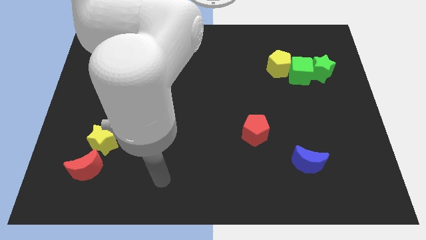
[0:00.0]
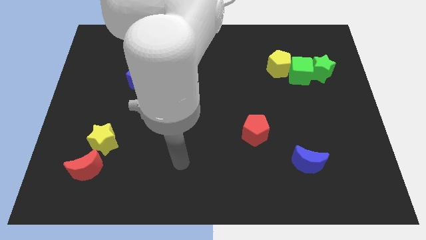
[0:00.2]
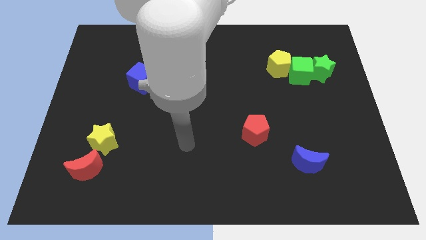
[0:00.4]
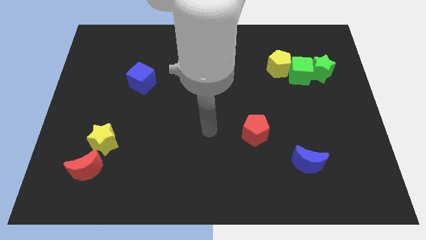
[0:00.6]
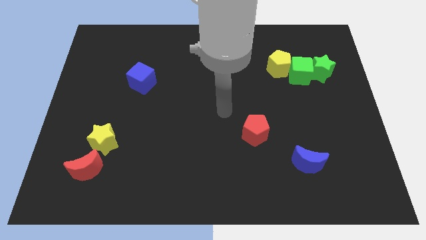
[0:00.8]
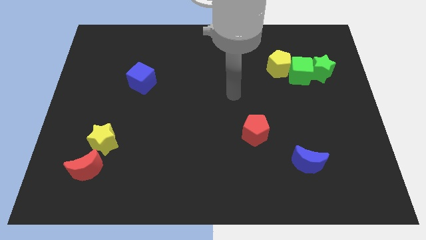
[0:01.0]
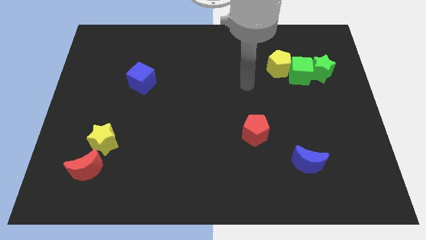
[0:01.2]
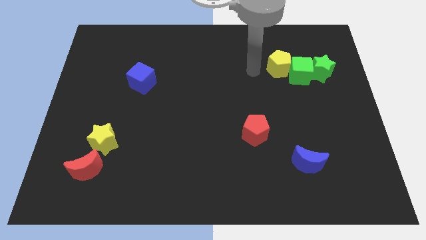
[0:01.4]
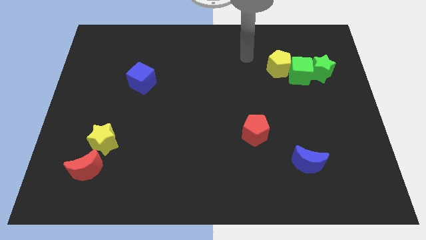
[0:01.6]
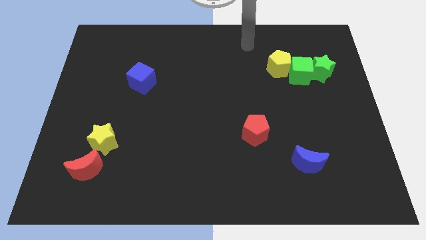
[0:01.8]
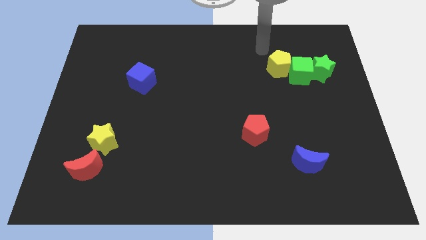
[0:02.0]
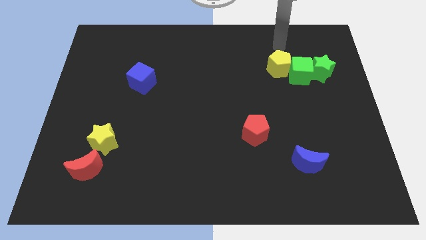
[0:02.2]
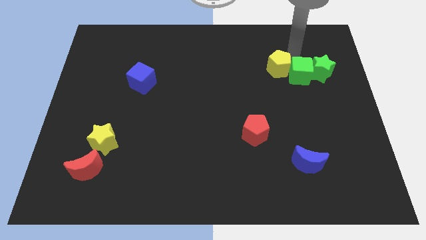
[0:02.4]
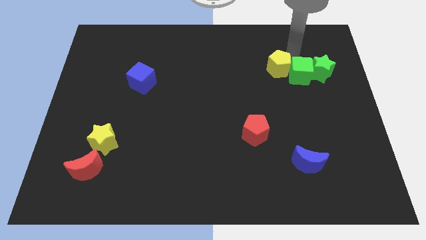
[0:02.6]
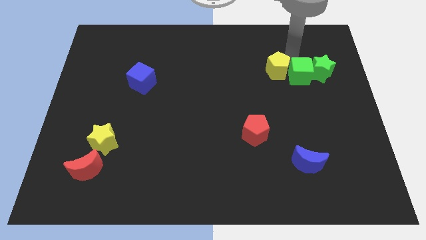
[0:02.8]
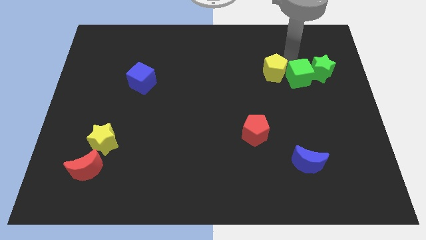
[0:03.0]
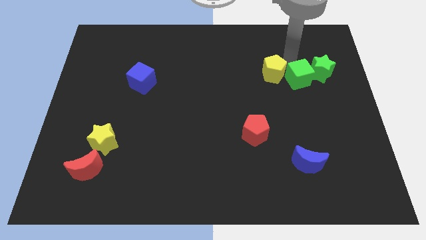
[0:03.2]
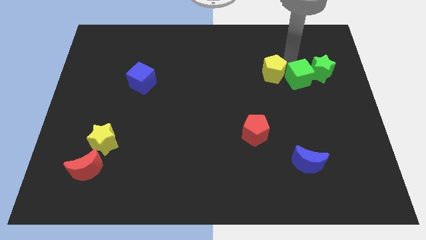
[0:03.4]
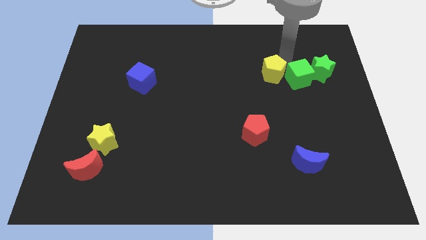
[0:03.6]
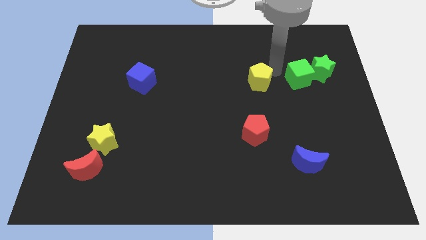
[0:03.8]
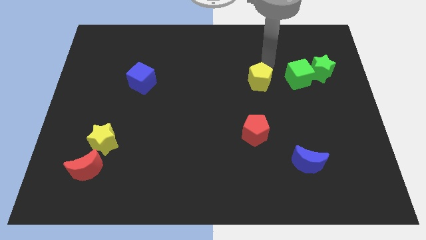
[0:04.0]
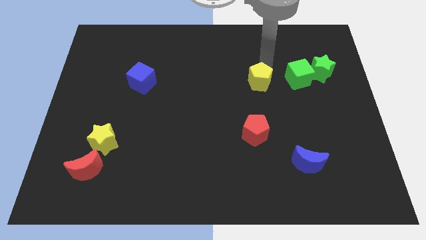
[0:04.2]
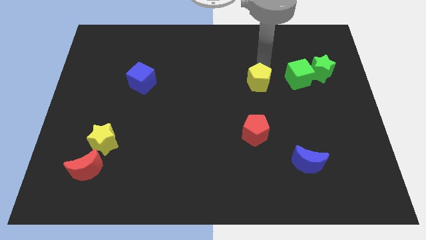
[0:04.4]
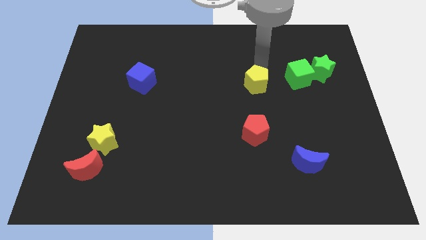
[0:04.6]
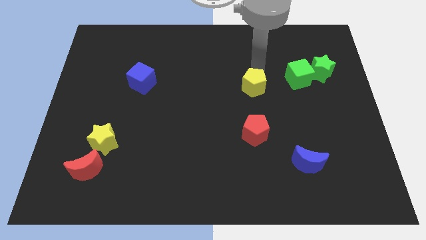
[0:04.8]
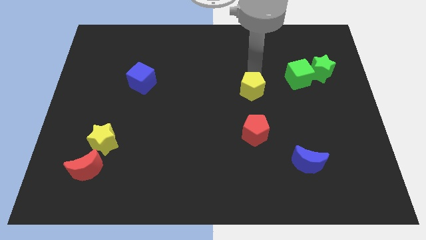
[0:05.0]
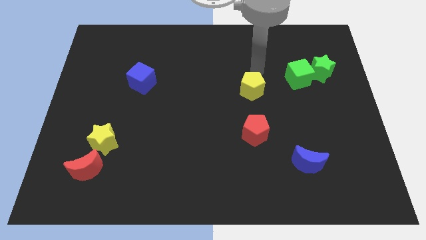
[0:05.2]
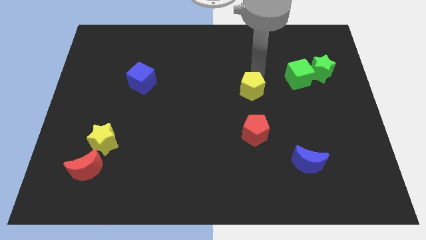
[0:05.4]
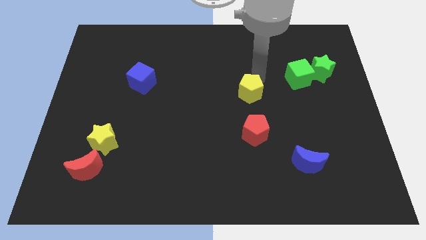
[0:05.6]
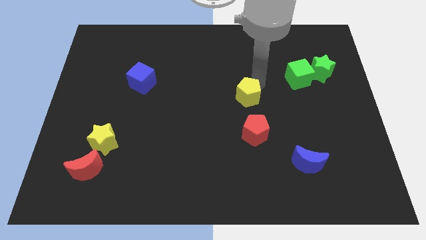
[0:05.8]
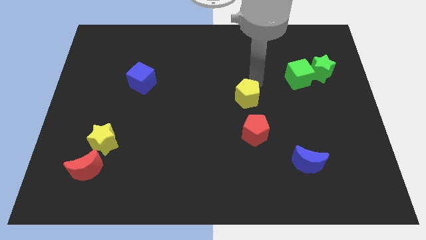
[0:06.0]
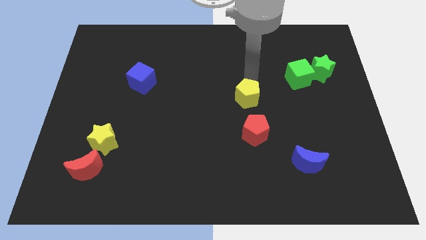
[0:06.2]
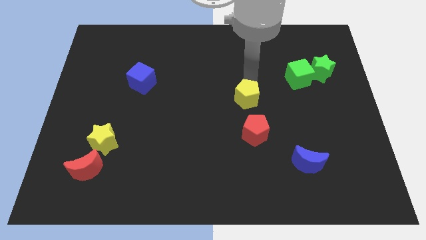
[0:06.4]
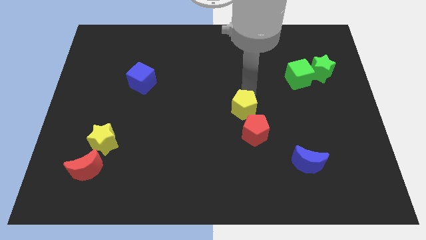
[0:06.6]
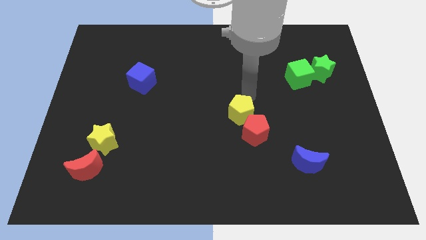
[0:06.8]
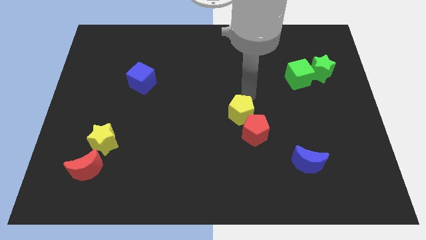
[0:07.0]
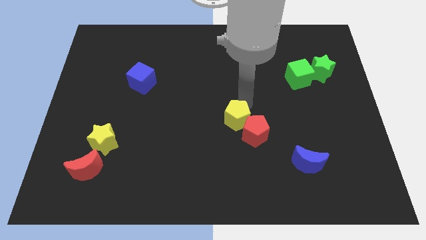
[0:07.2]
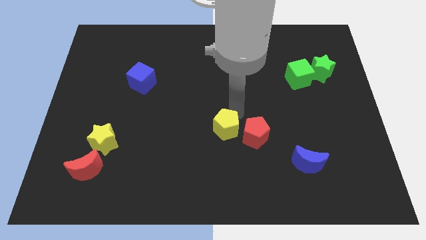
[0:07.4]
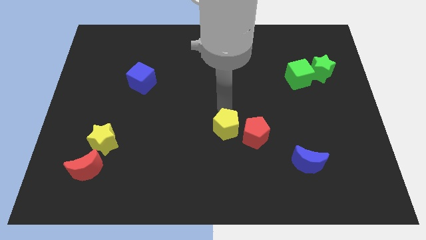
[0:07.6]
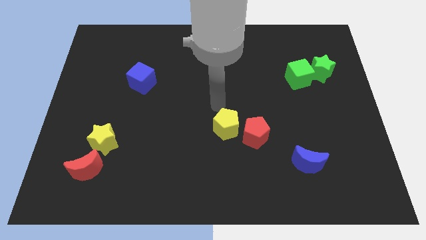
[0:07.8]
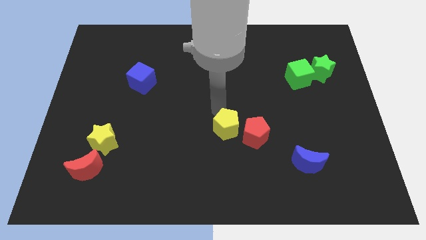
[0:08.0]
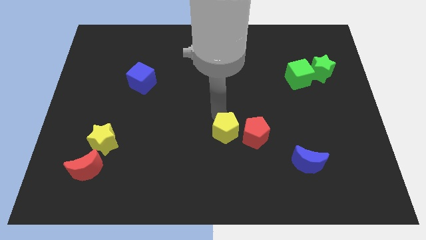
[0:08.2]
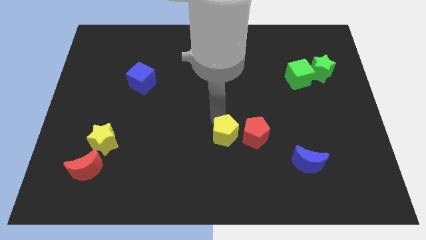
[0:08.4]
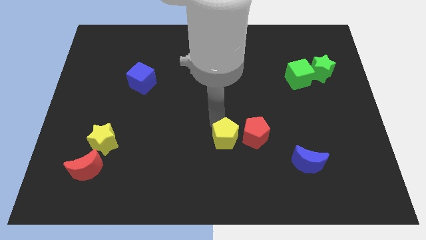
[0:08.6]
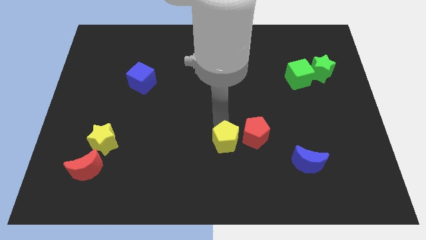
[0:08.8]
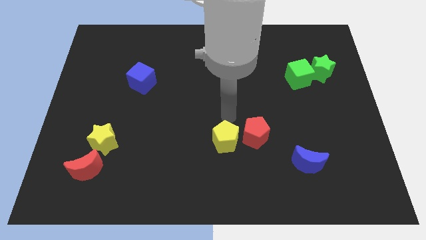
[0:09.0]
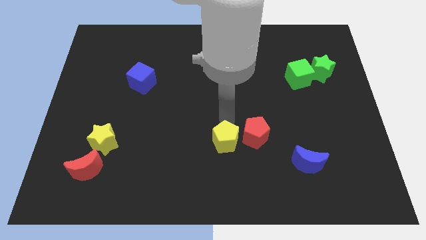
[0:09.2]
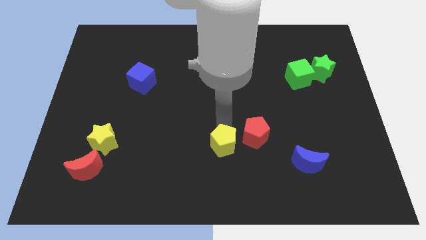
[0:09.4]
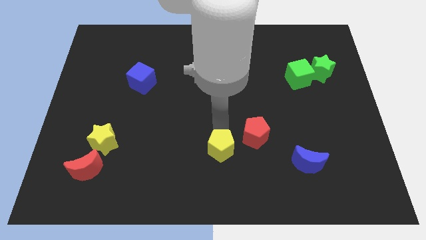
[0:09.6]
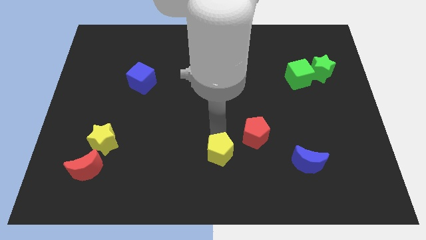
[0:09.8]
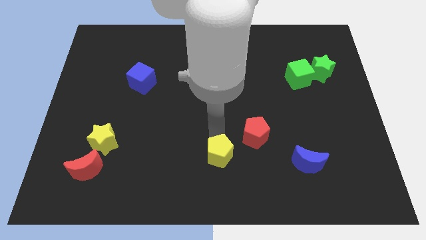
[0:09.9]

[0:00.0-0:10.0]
put the yellow pentagon to the bottom side

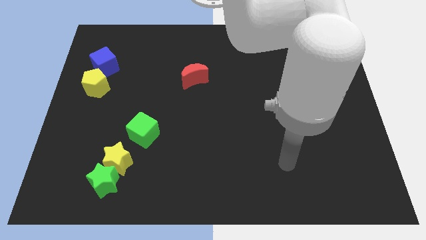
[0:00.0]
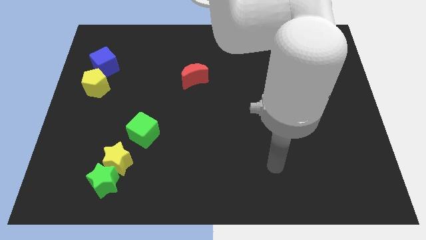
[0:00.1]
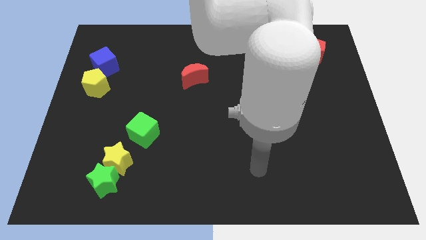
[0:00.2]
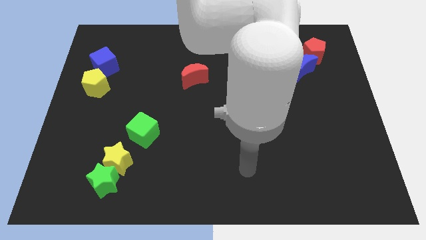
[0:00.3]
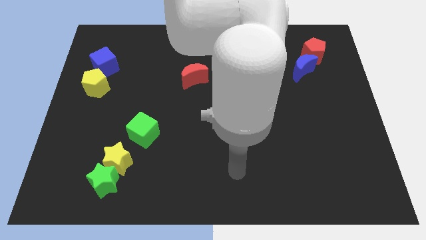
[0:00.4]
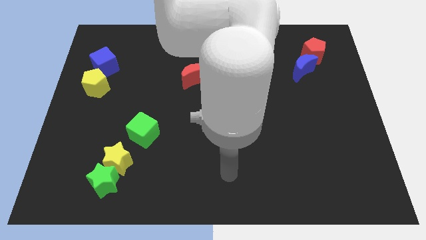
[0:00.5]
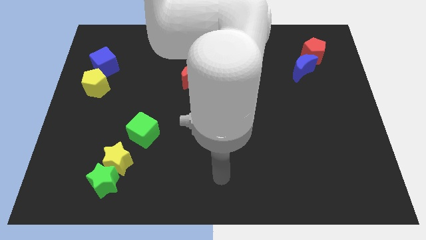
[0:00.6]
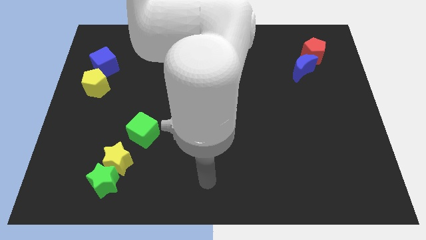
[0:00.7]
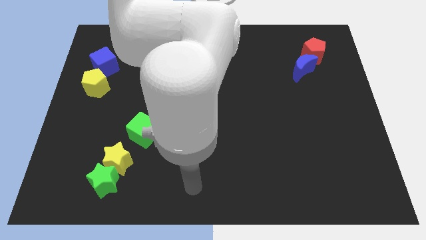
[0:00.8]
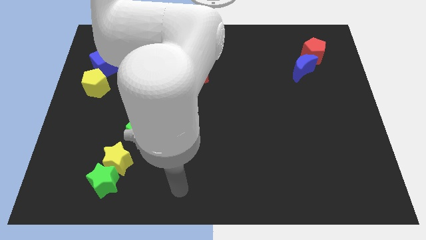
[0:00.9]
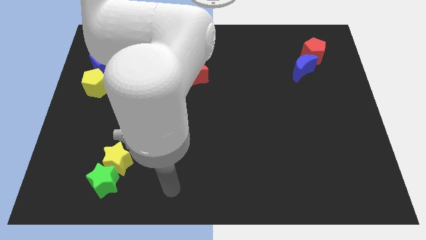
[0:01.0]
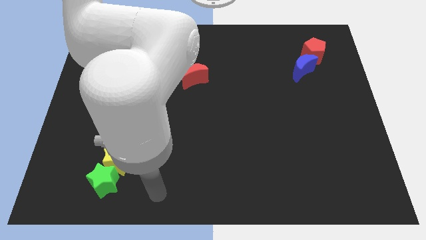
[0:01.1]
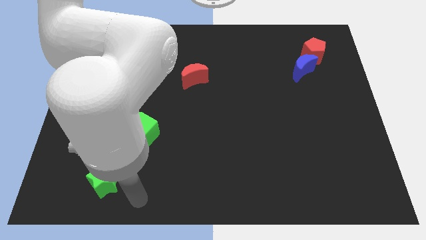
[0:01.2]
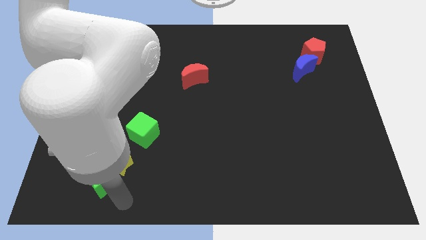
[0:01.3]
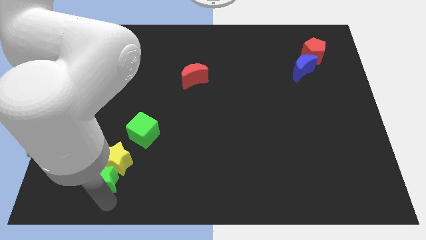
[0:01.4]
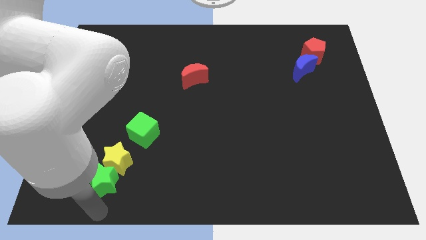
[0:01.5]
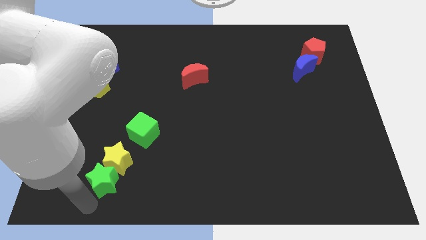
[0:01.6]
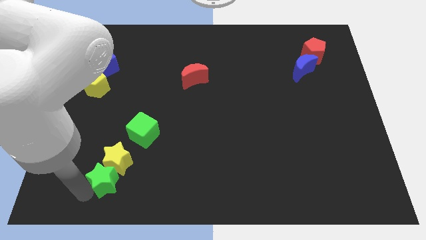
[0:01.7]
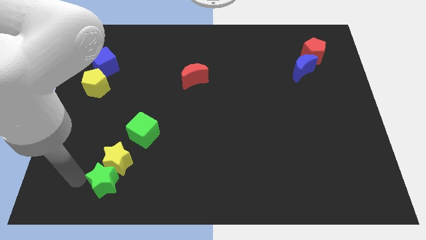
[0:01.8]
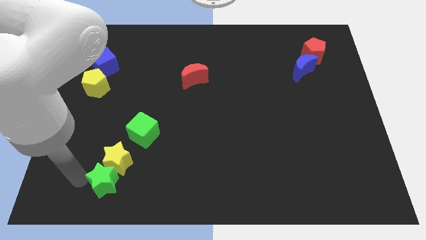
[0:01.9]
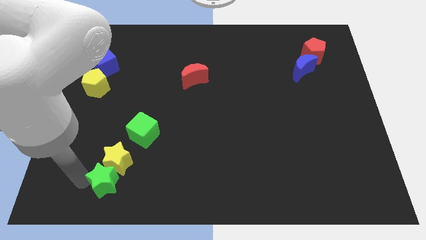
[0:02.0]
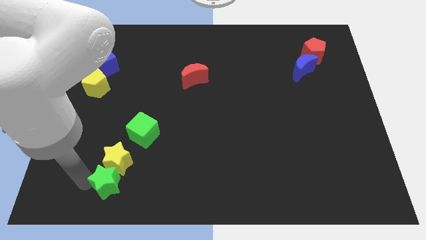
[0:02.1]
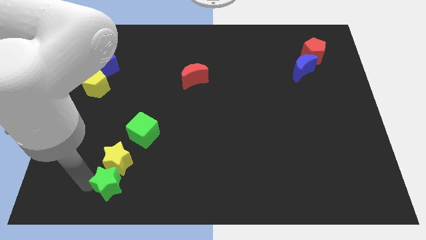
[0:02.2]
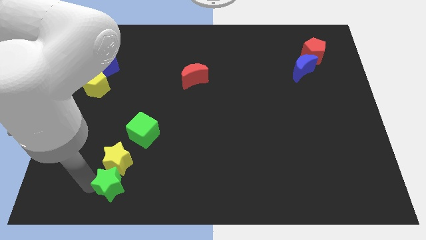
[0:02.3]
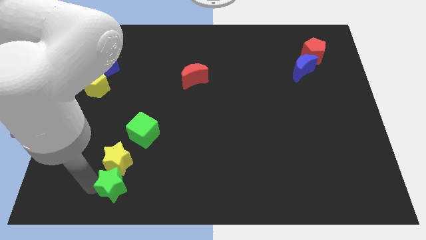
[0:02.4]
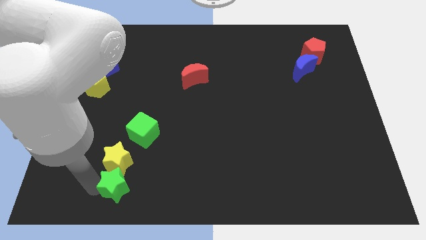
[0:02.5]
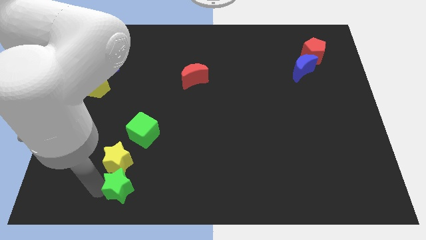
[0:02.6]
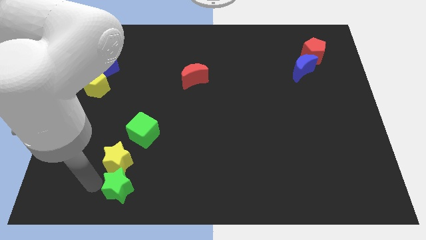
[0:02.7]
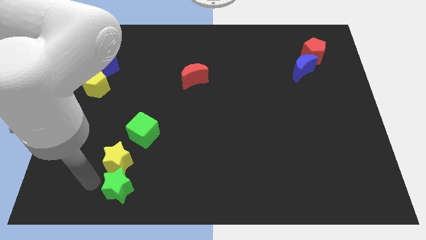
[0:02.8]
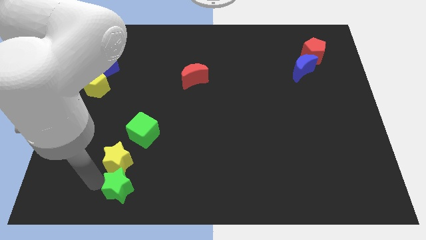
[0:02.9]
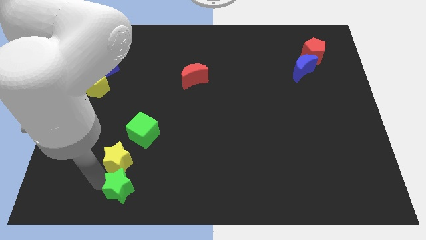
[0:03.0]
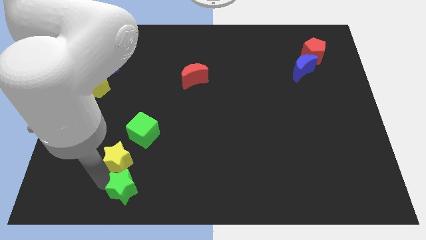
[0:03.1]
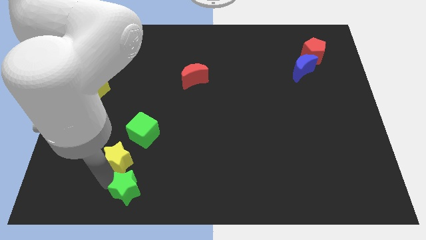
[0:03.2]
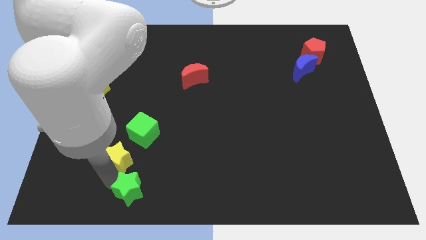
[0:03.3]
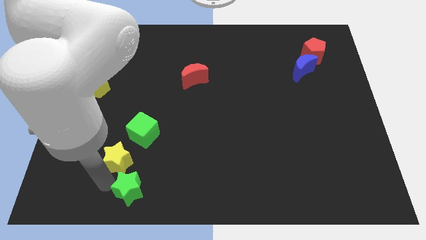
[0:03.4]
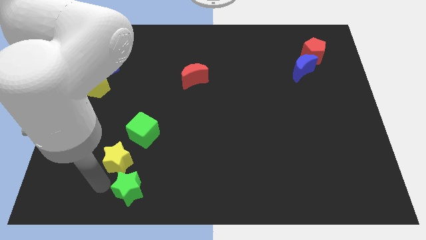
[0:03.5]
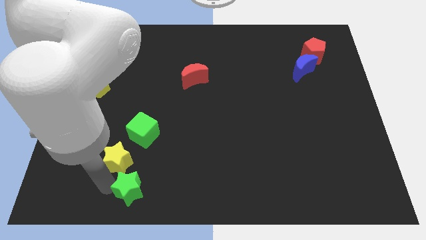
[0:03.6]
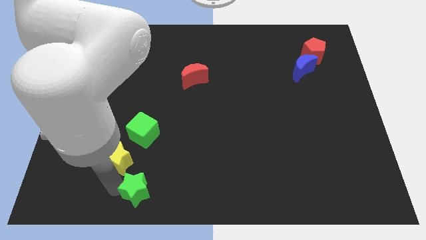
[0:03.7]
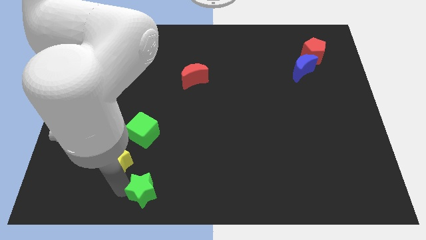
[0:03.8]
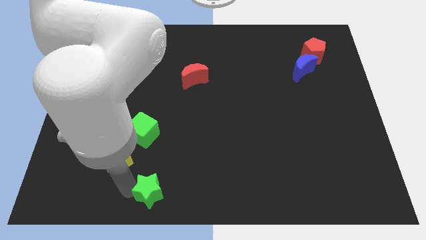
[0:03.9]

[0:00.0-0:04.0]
move the green star to the bottom
